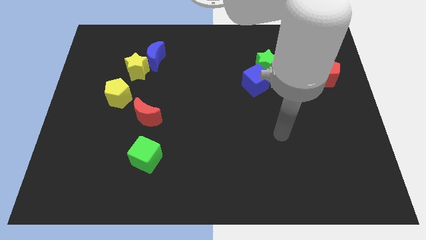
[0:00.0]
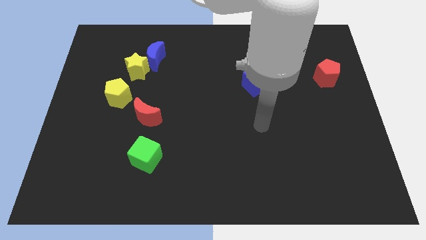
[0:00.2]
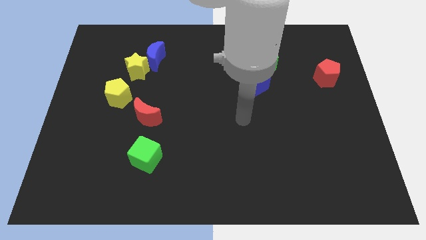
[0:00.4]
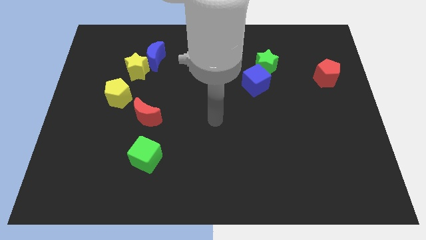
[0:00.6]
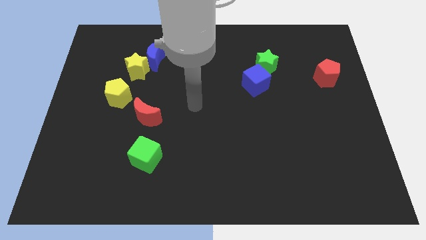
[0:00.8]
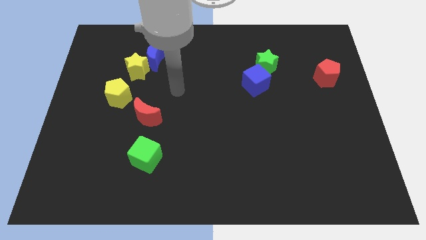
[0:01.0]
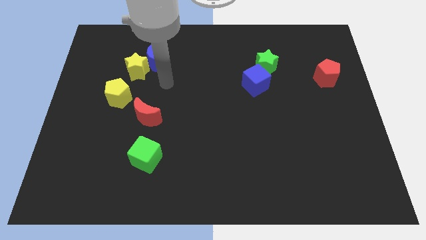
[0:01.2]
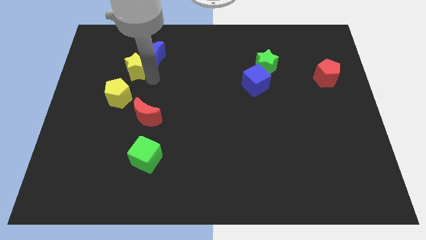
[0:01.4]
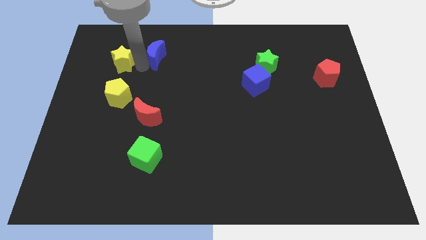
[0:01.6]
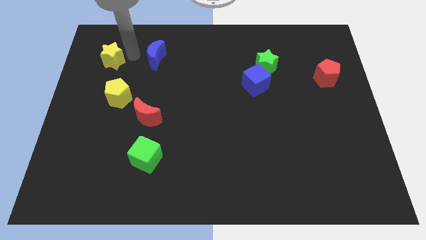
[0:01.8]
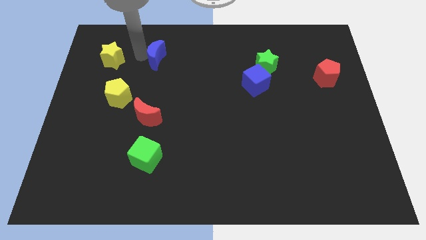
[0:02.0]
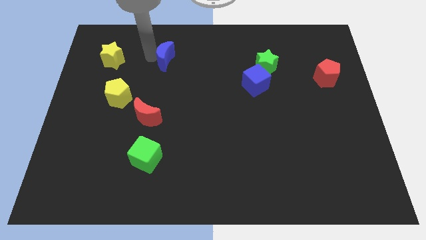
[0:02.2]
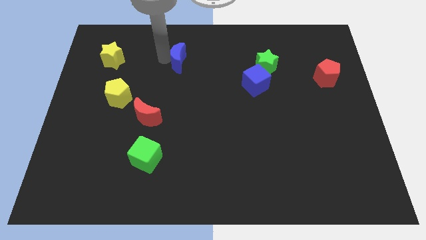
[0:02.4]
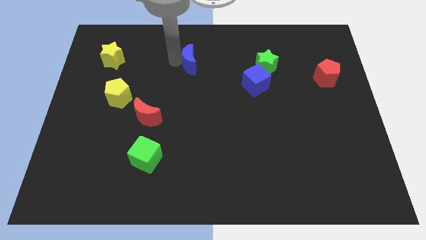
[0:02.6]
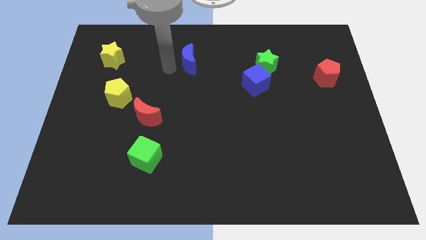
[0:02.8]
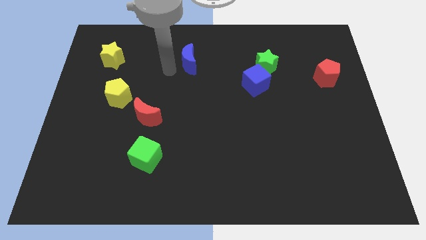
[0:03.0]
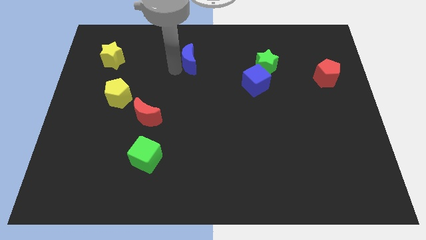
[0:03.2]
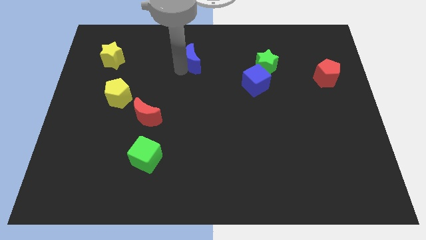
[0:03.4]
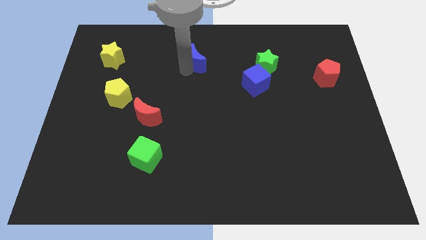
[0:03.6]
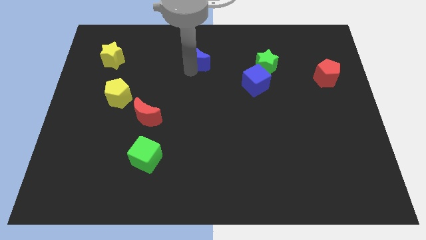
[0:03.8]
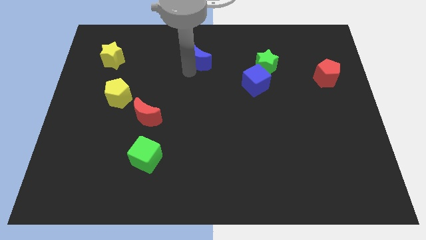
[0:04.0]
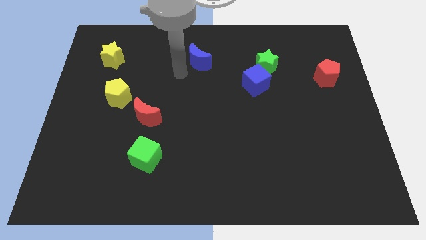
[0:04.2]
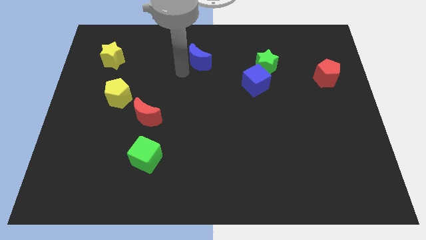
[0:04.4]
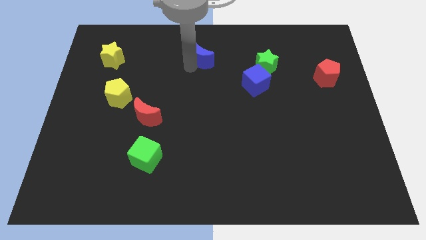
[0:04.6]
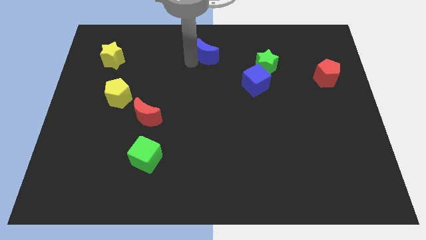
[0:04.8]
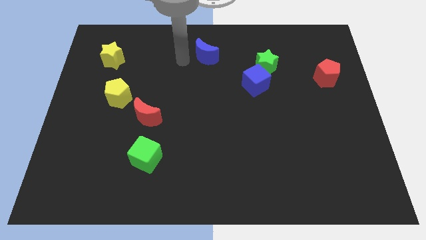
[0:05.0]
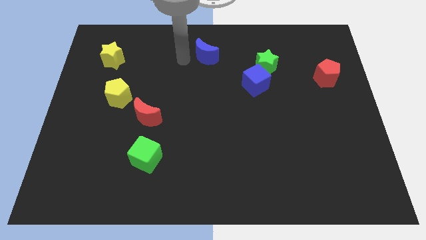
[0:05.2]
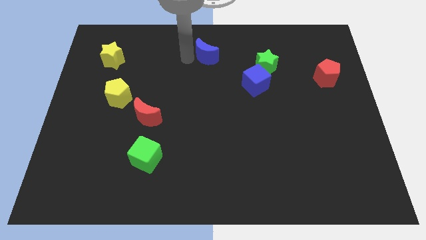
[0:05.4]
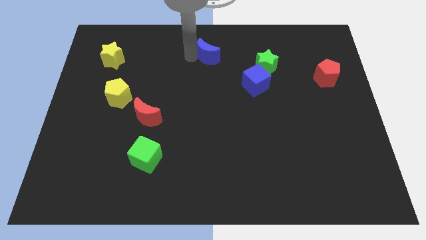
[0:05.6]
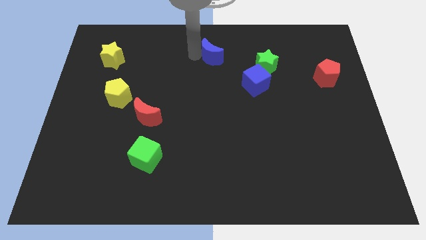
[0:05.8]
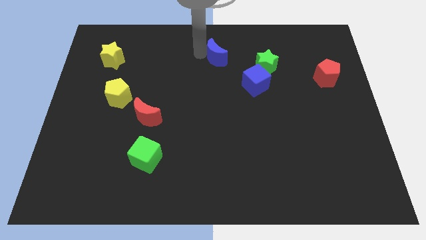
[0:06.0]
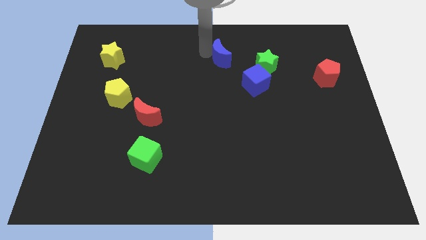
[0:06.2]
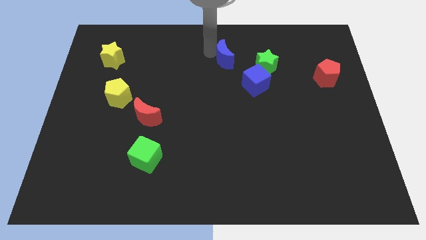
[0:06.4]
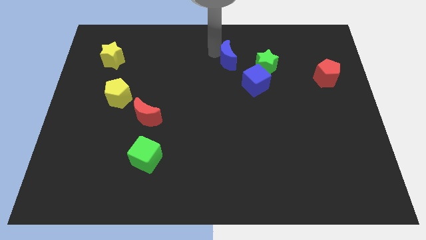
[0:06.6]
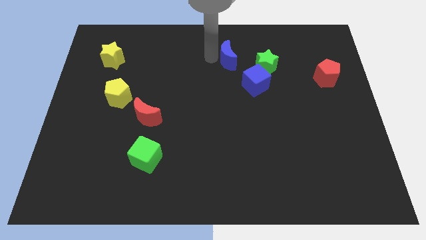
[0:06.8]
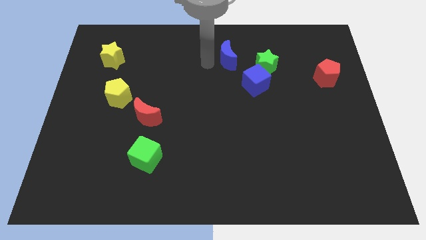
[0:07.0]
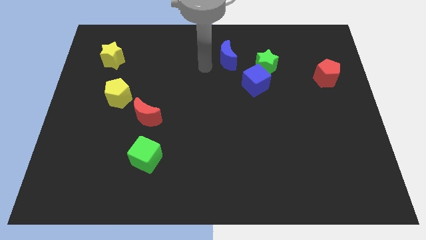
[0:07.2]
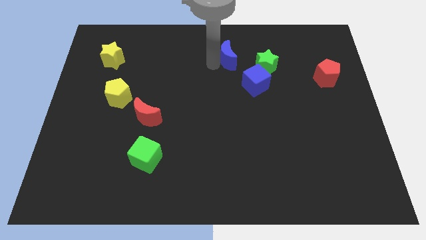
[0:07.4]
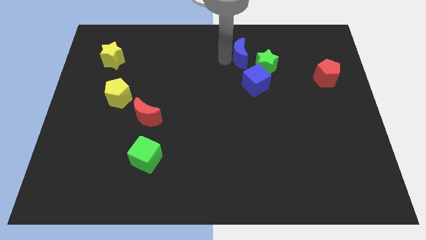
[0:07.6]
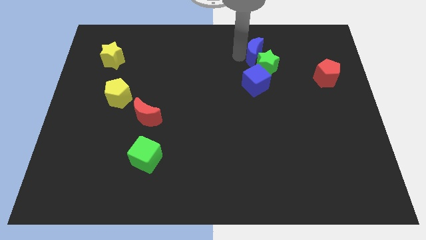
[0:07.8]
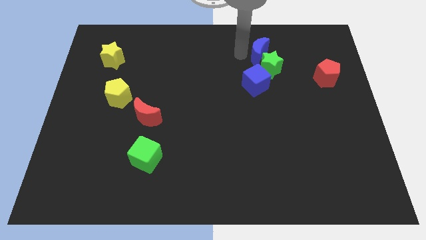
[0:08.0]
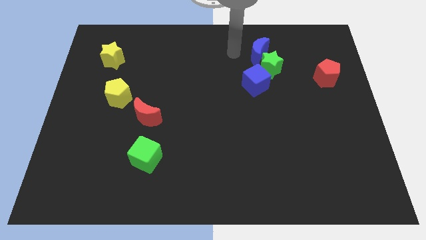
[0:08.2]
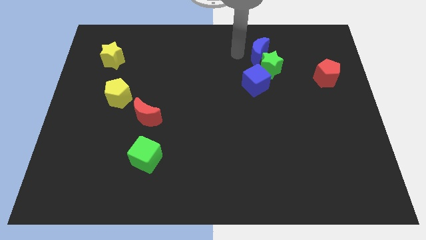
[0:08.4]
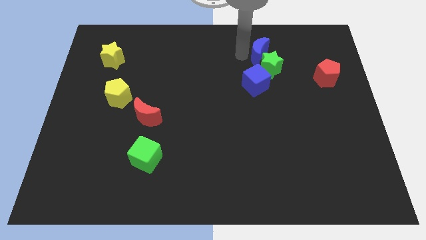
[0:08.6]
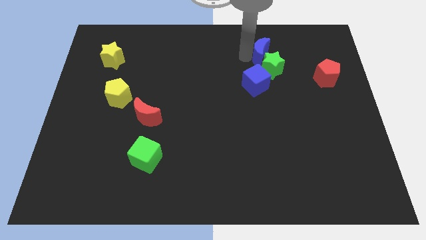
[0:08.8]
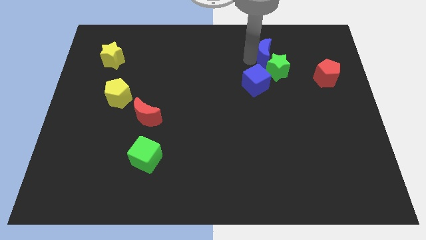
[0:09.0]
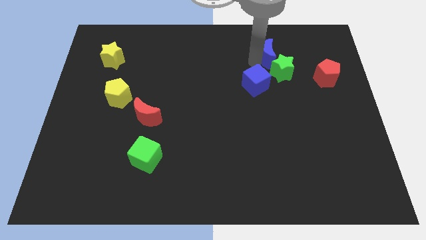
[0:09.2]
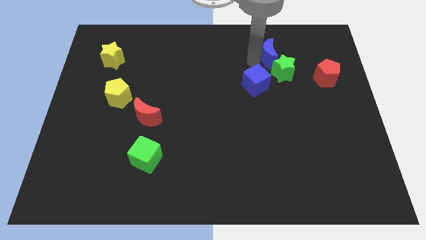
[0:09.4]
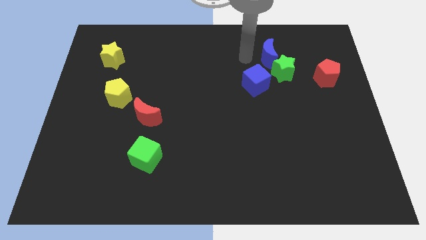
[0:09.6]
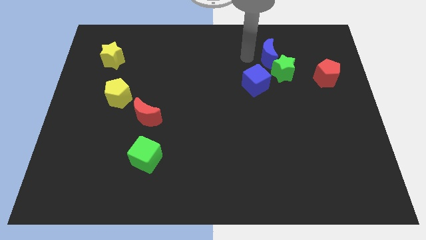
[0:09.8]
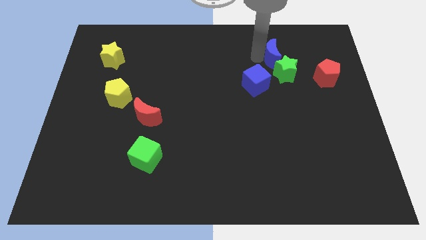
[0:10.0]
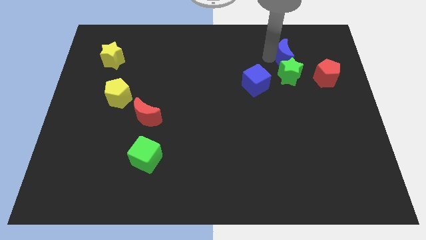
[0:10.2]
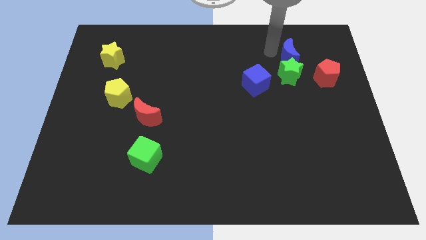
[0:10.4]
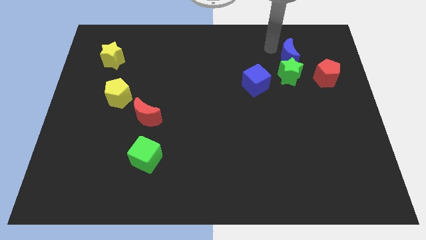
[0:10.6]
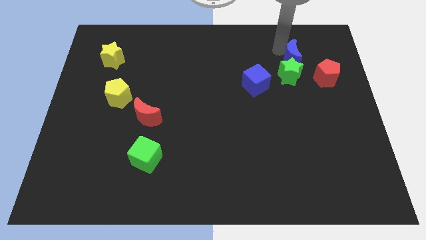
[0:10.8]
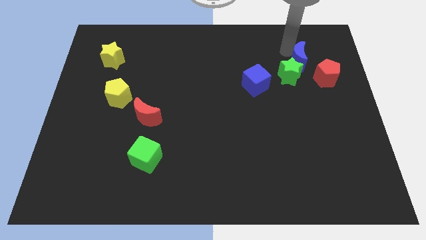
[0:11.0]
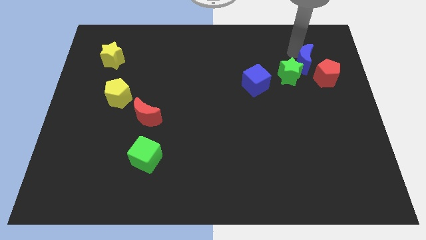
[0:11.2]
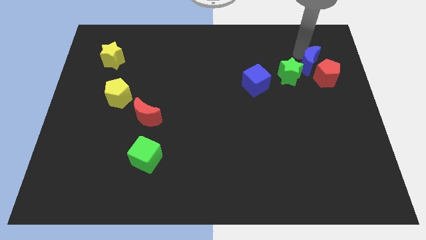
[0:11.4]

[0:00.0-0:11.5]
move the blue moon to the red pentagon

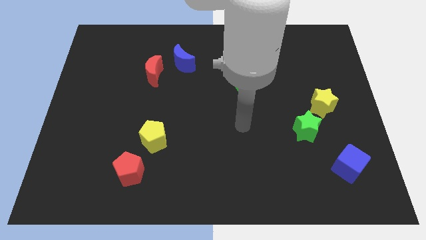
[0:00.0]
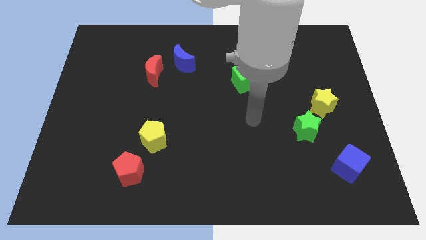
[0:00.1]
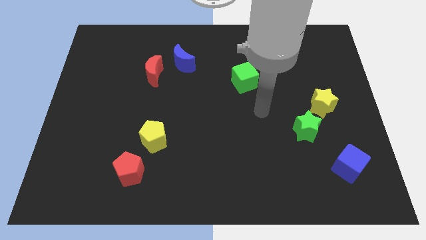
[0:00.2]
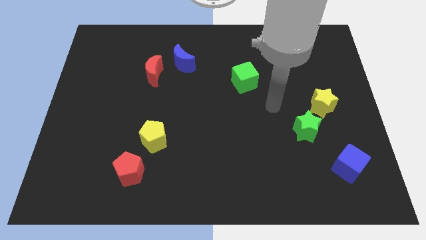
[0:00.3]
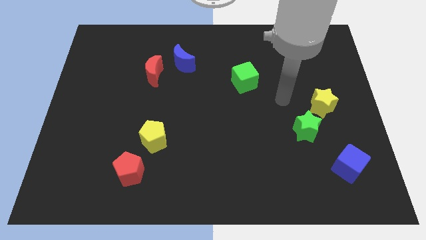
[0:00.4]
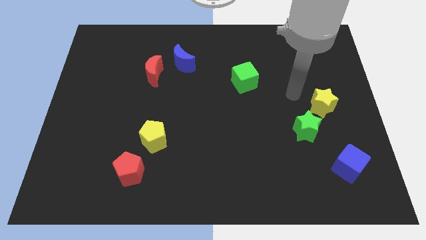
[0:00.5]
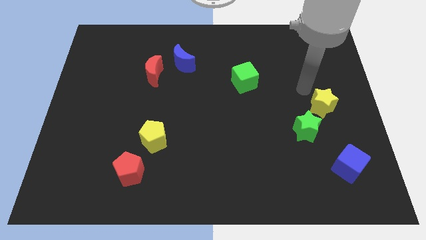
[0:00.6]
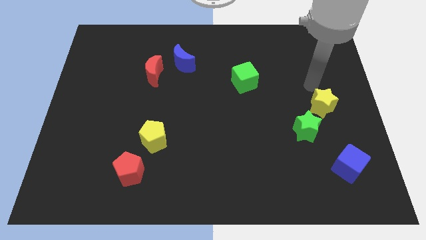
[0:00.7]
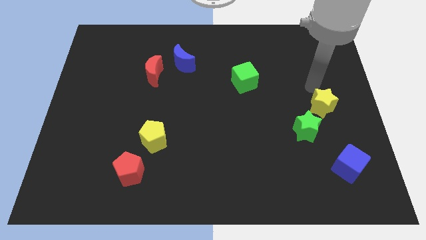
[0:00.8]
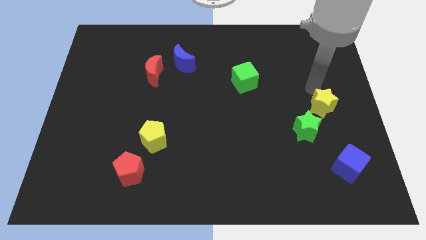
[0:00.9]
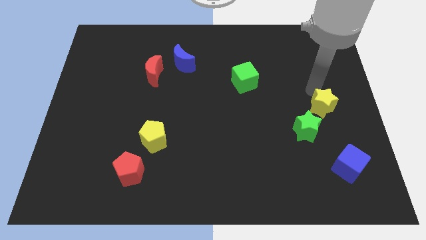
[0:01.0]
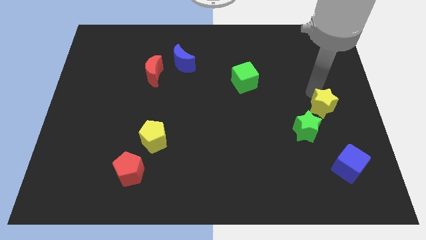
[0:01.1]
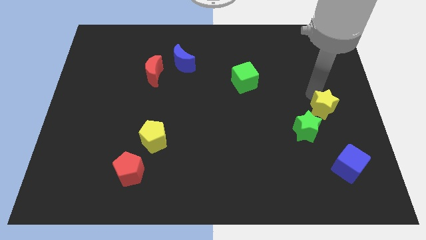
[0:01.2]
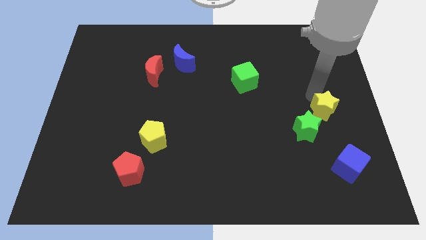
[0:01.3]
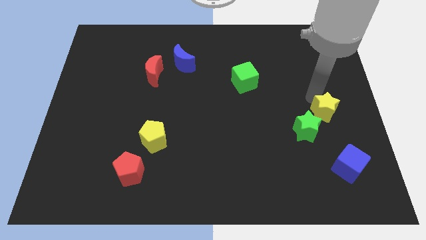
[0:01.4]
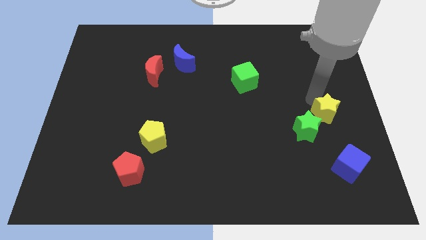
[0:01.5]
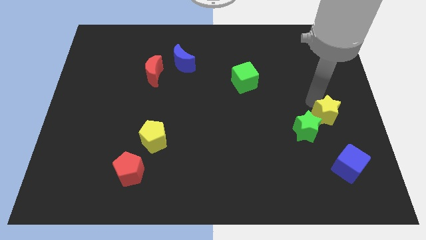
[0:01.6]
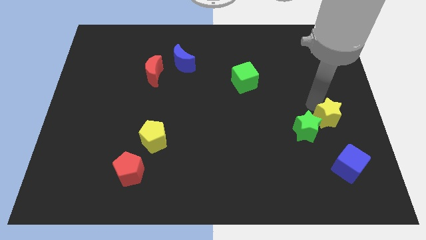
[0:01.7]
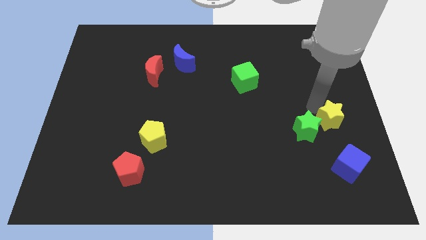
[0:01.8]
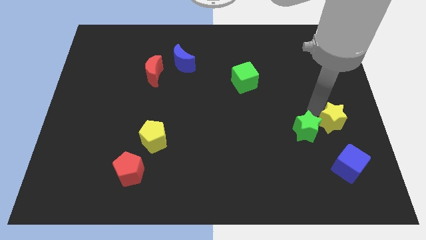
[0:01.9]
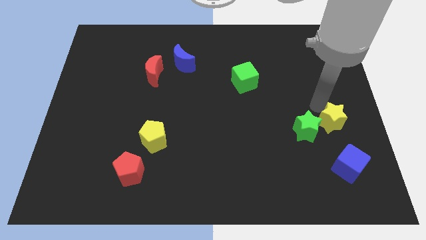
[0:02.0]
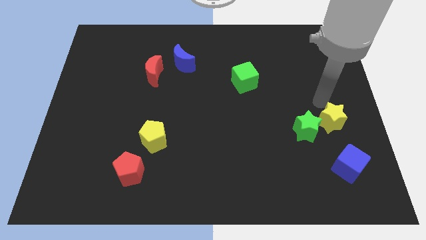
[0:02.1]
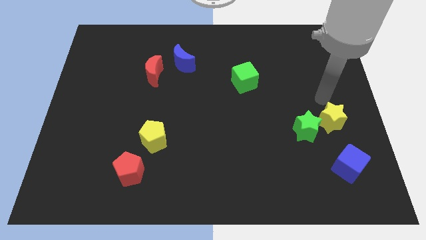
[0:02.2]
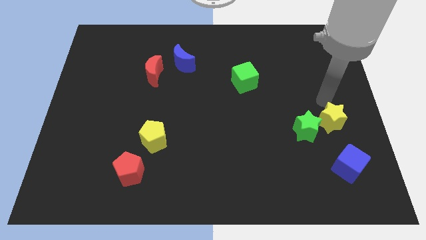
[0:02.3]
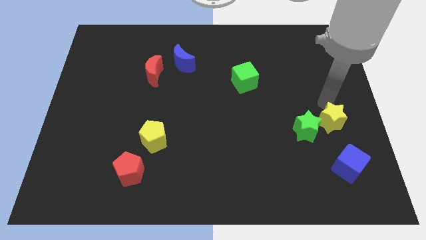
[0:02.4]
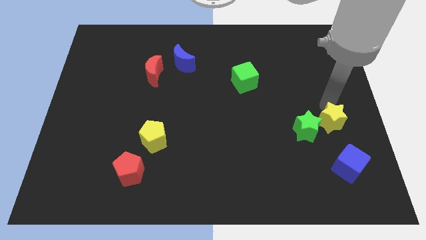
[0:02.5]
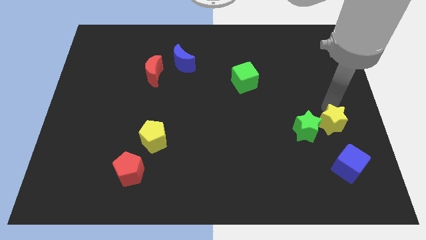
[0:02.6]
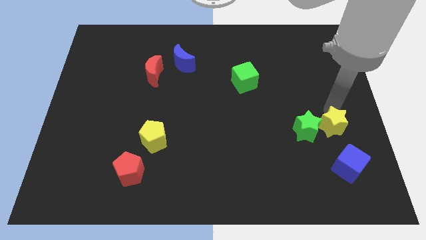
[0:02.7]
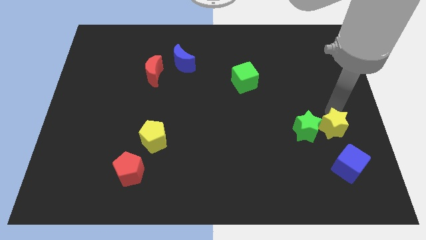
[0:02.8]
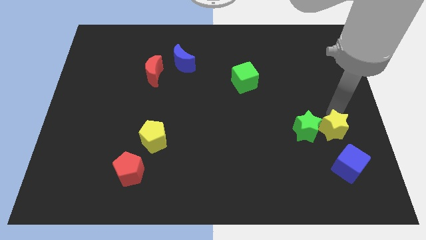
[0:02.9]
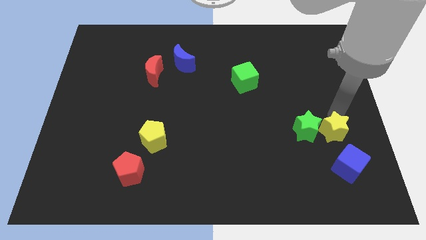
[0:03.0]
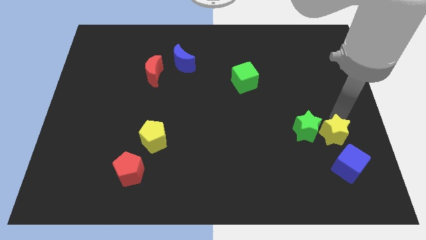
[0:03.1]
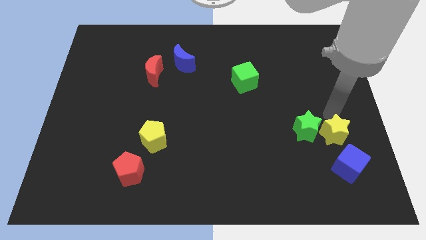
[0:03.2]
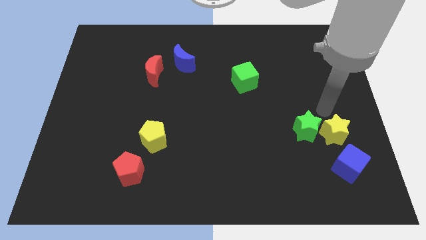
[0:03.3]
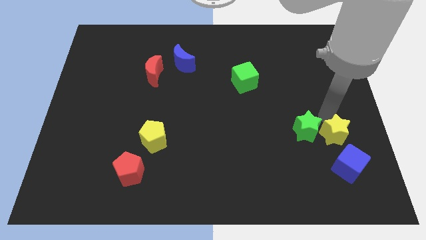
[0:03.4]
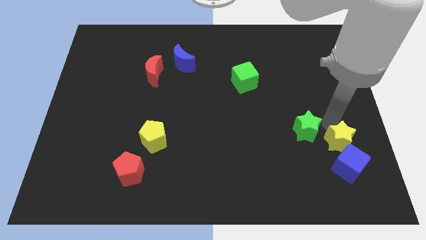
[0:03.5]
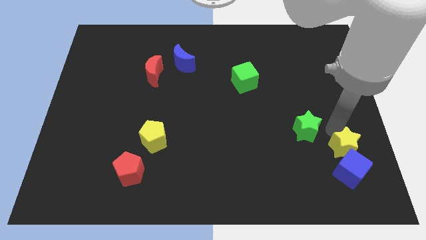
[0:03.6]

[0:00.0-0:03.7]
move the yellow star to the blue cube
